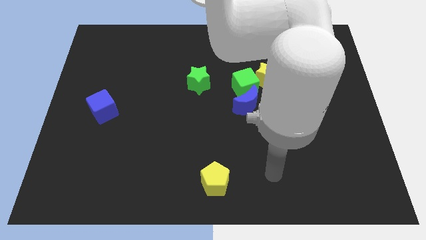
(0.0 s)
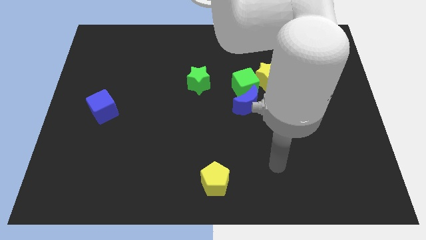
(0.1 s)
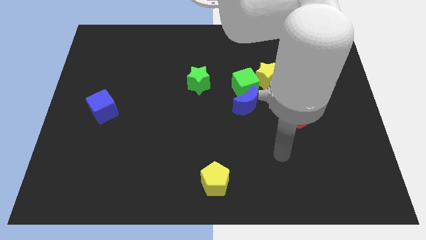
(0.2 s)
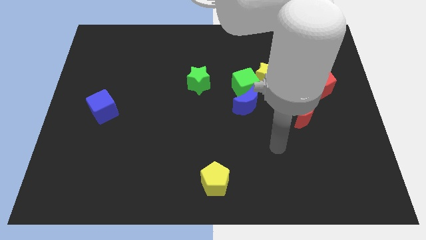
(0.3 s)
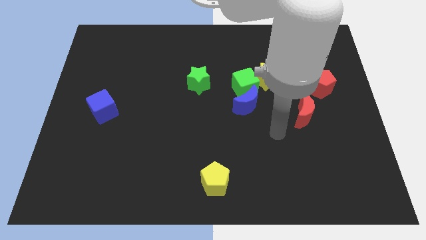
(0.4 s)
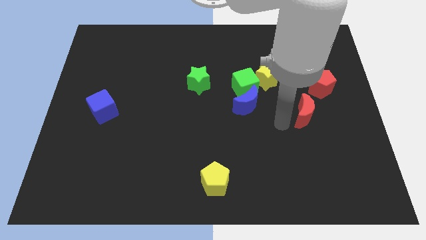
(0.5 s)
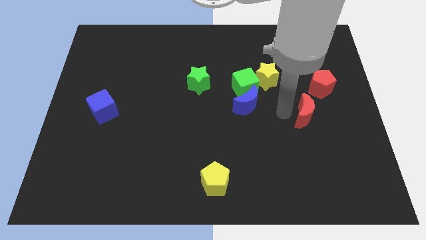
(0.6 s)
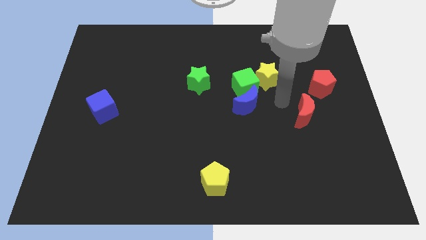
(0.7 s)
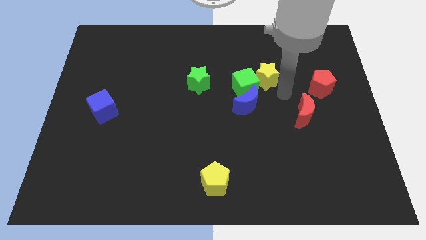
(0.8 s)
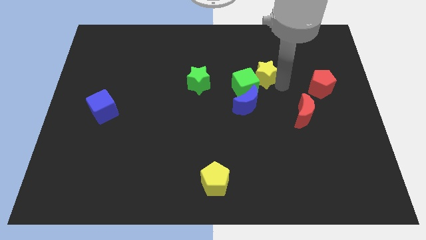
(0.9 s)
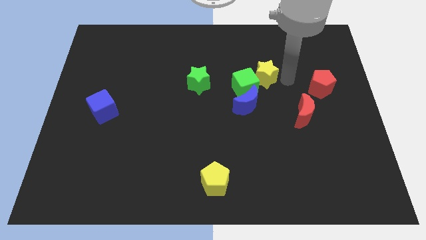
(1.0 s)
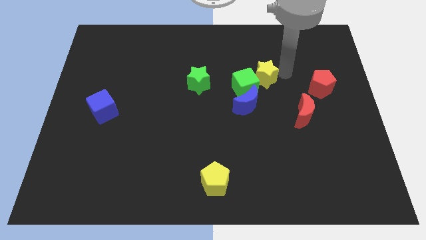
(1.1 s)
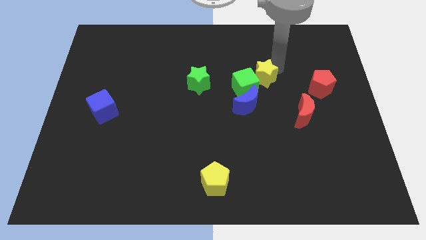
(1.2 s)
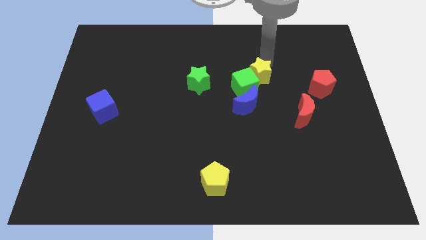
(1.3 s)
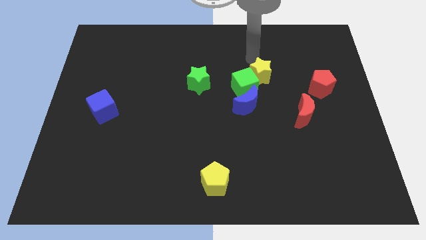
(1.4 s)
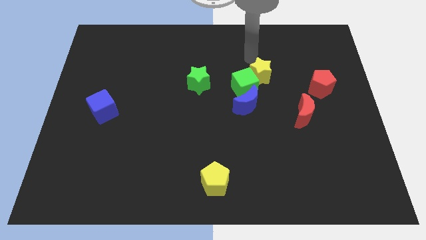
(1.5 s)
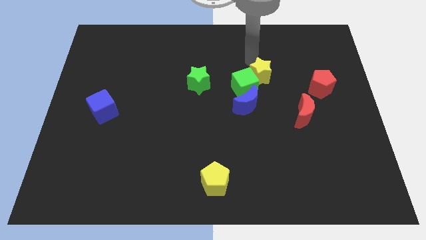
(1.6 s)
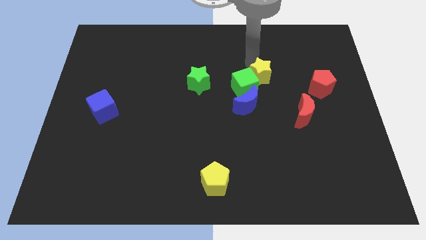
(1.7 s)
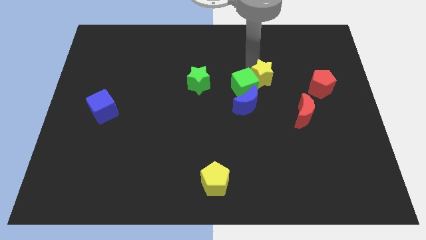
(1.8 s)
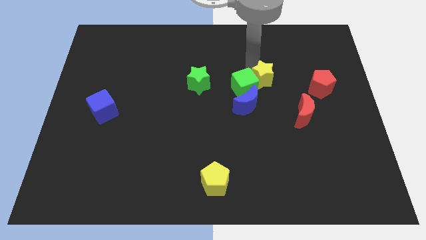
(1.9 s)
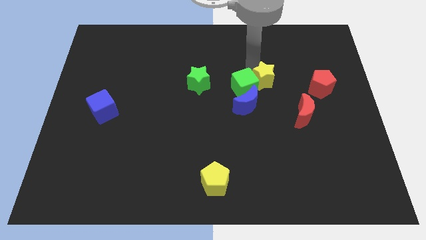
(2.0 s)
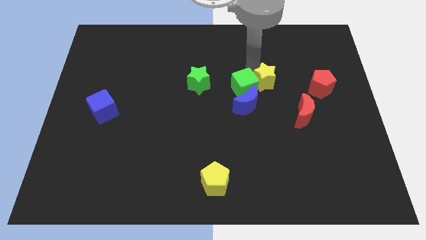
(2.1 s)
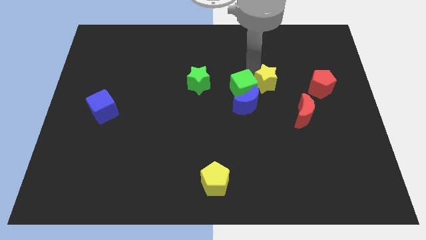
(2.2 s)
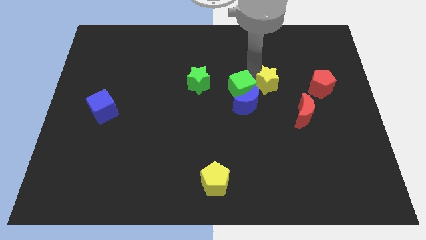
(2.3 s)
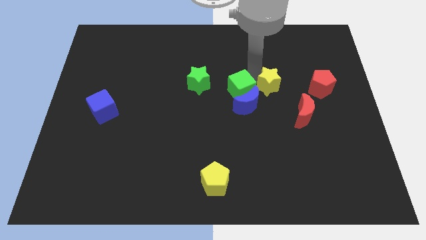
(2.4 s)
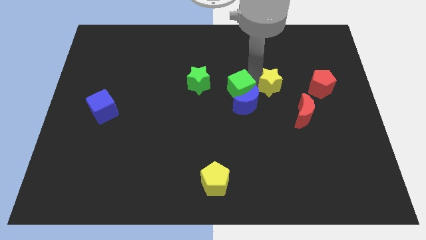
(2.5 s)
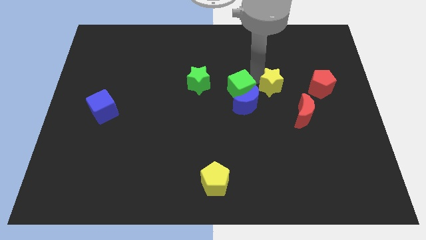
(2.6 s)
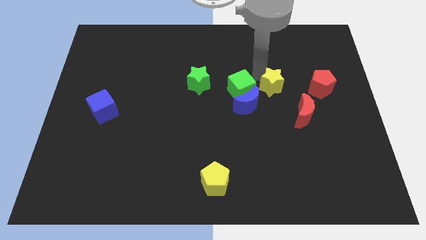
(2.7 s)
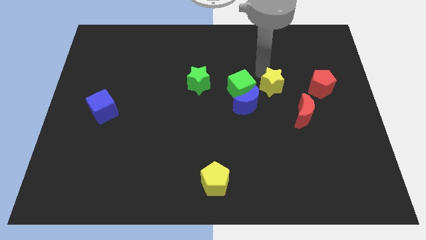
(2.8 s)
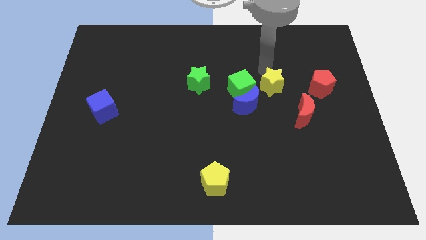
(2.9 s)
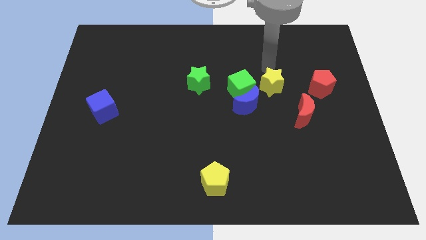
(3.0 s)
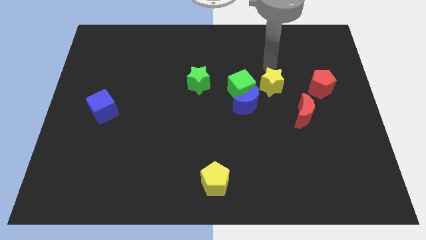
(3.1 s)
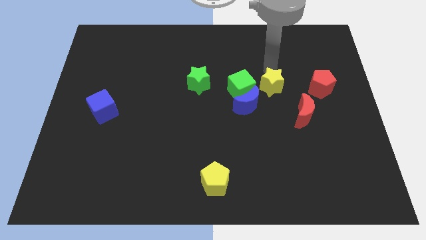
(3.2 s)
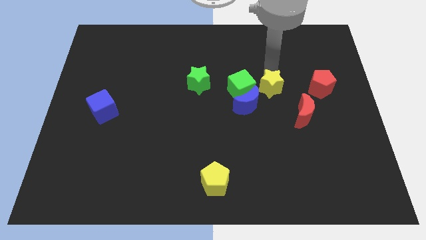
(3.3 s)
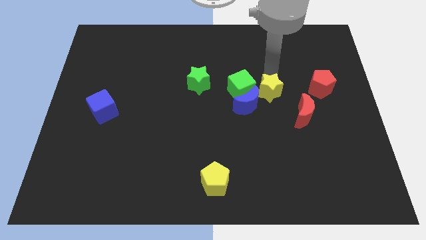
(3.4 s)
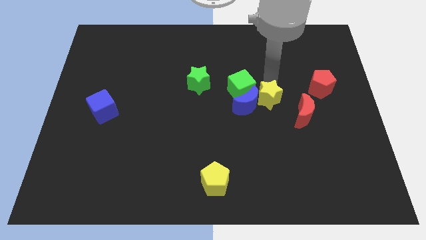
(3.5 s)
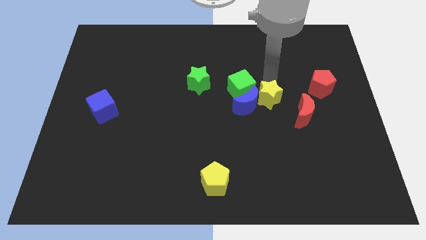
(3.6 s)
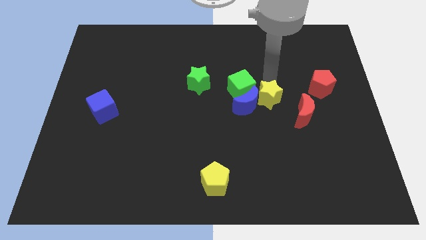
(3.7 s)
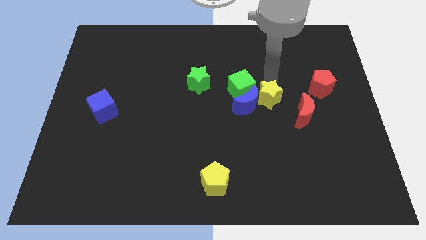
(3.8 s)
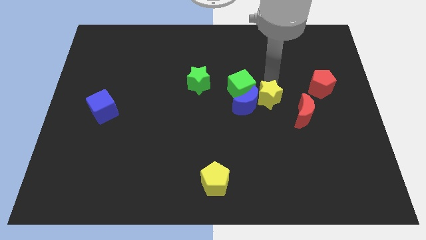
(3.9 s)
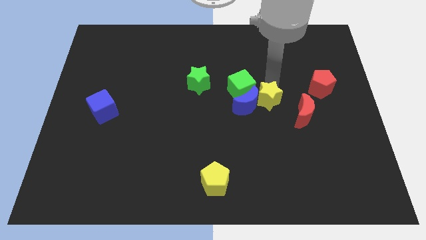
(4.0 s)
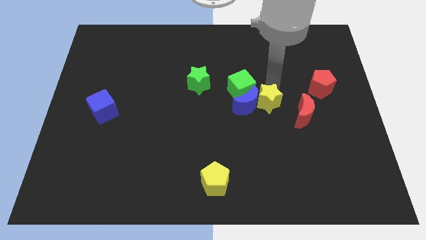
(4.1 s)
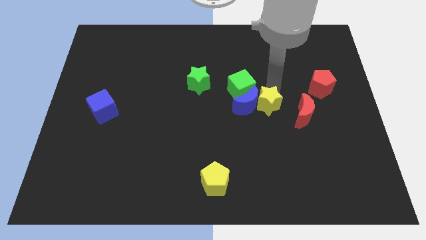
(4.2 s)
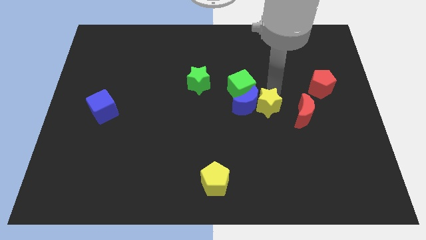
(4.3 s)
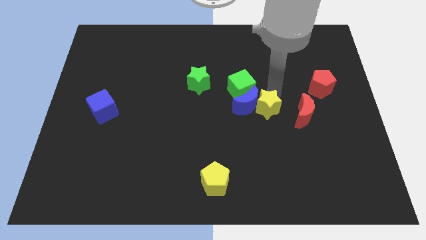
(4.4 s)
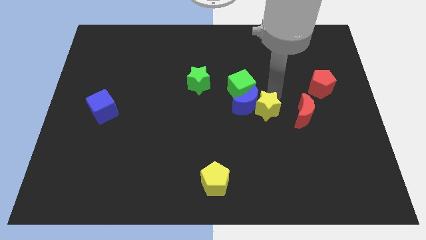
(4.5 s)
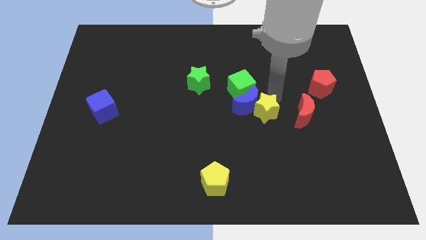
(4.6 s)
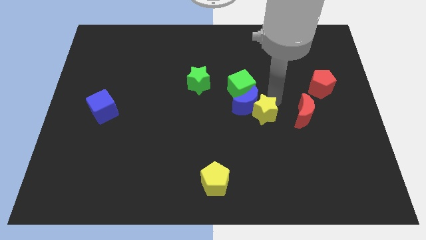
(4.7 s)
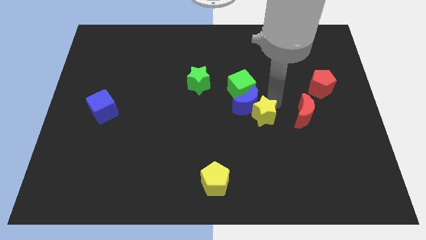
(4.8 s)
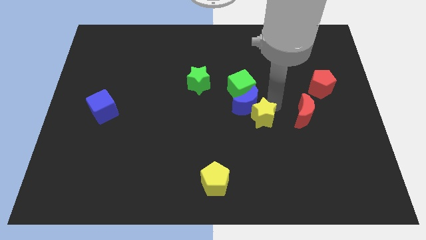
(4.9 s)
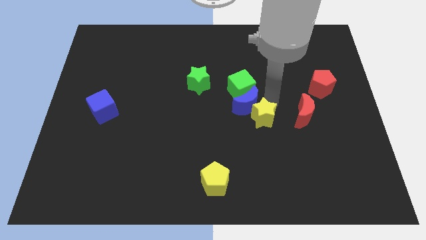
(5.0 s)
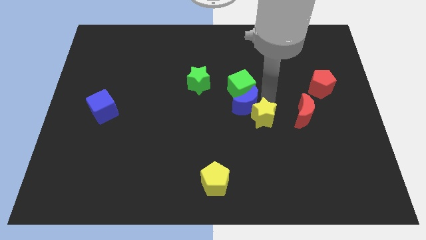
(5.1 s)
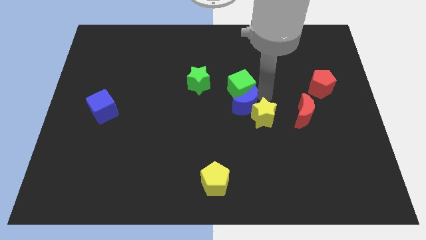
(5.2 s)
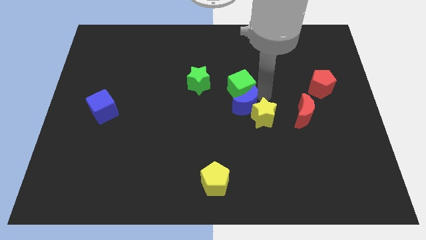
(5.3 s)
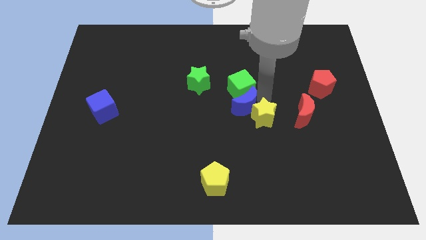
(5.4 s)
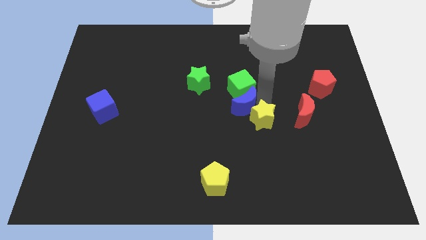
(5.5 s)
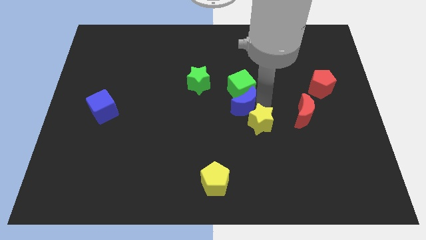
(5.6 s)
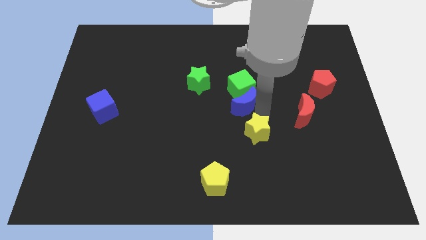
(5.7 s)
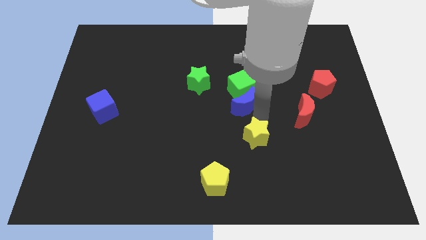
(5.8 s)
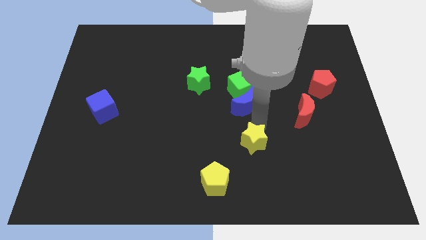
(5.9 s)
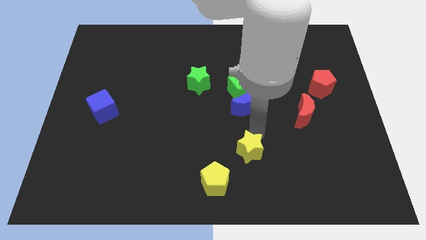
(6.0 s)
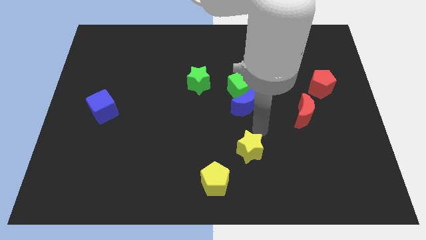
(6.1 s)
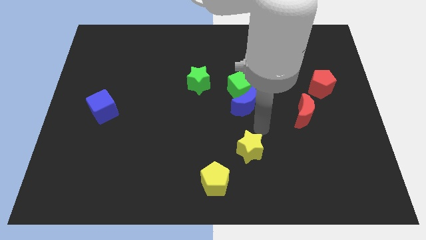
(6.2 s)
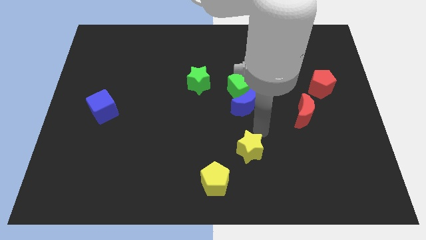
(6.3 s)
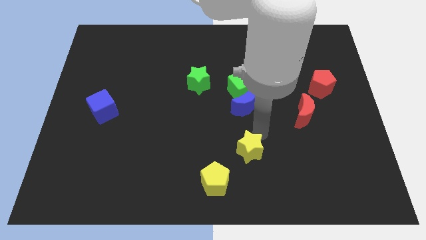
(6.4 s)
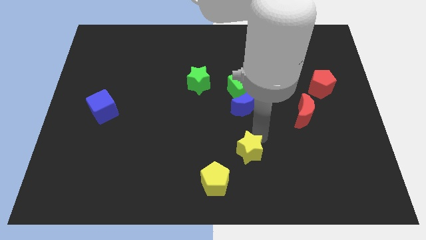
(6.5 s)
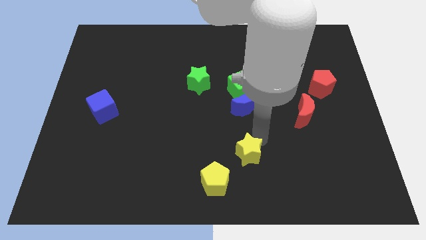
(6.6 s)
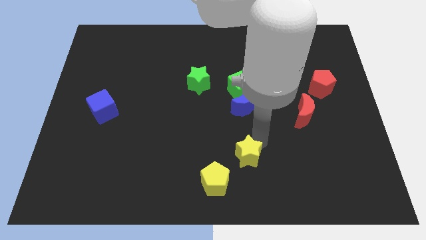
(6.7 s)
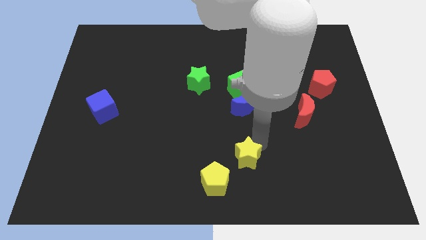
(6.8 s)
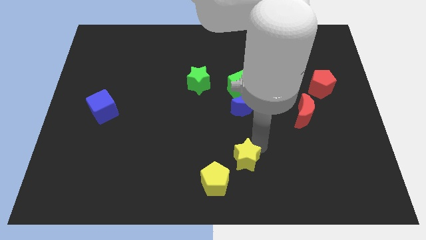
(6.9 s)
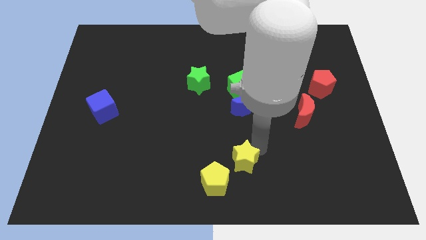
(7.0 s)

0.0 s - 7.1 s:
put the yellow star to the bottom side
